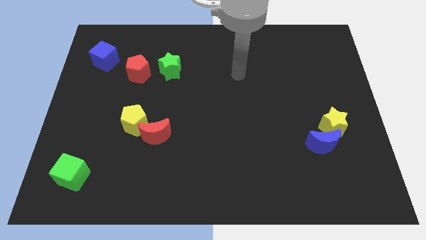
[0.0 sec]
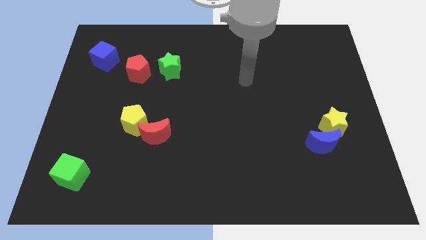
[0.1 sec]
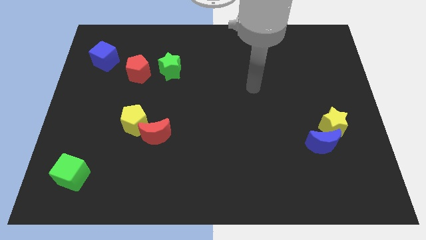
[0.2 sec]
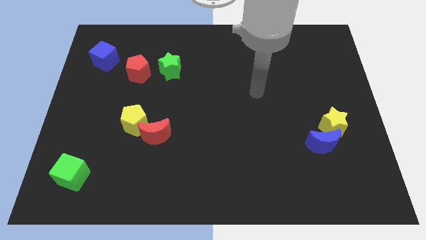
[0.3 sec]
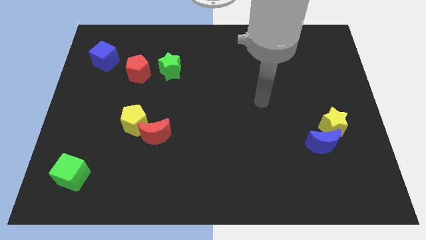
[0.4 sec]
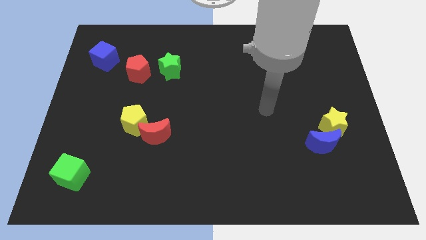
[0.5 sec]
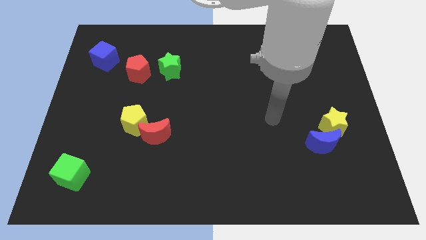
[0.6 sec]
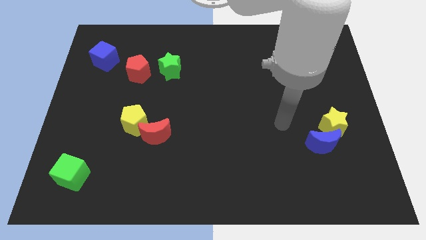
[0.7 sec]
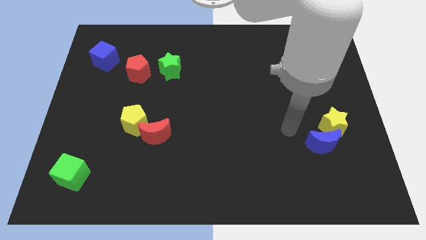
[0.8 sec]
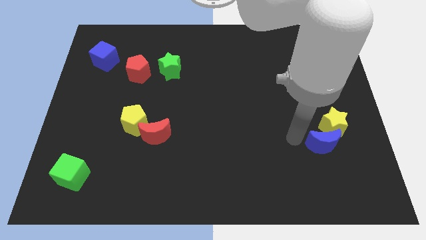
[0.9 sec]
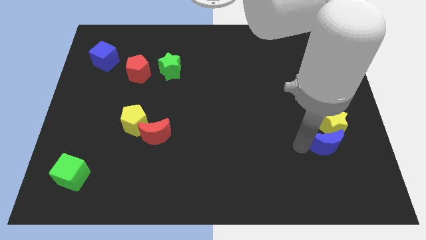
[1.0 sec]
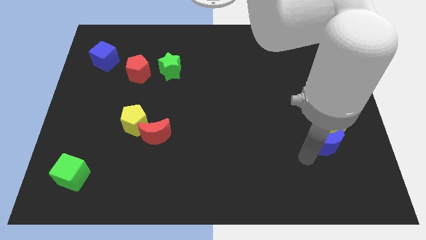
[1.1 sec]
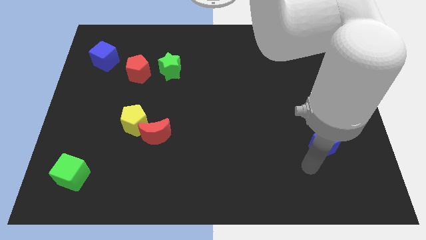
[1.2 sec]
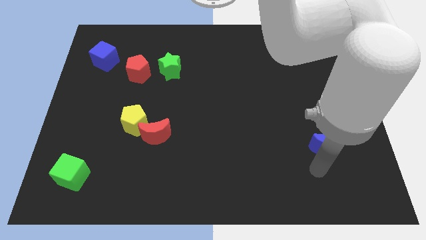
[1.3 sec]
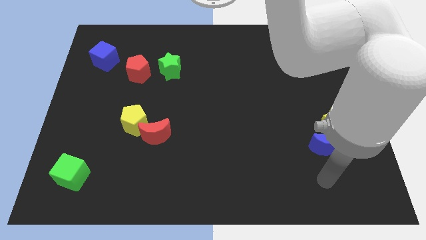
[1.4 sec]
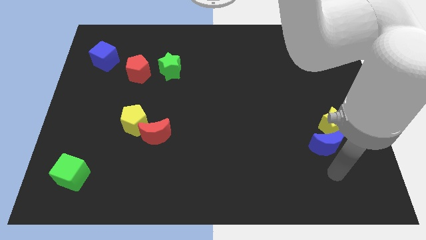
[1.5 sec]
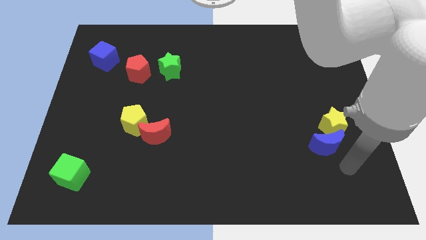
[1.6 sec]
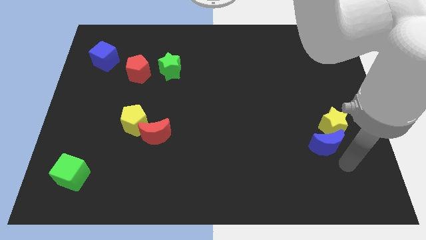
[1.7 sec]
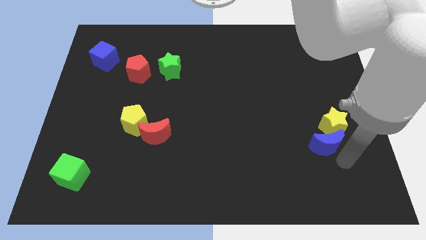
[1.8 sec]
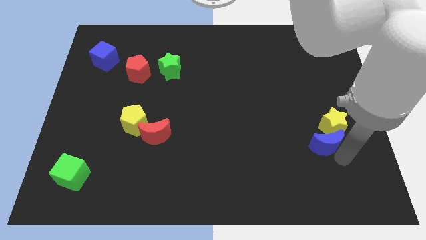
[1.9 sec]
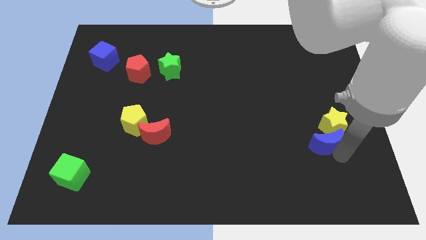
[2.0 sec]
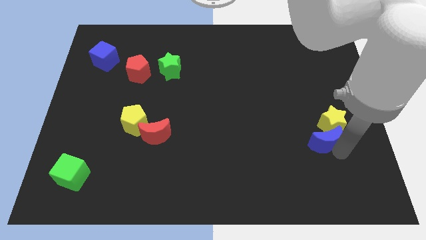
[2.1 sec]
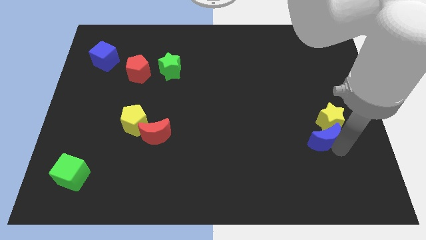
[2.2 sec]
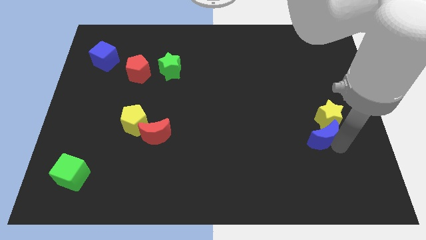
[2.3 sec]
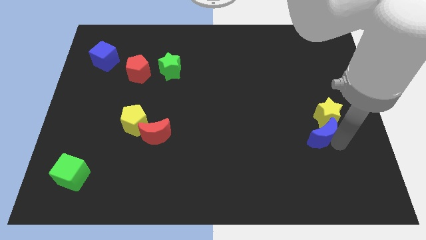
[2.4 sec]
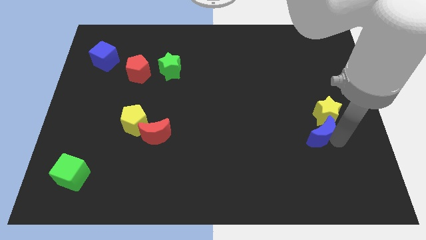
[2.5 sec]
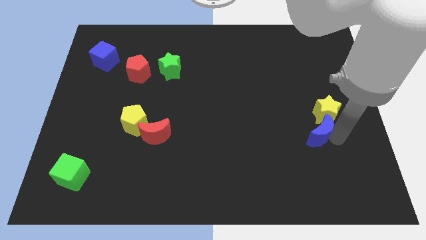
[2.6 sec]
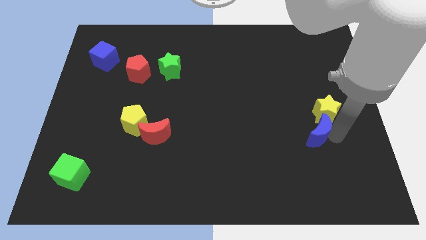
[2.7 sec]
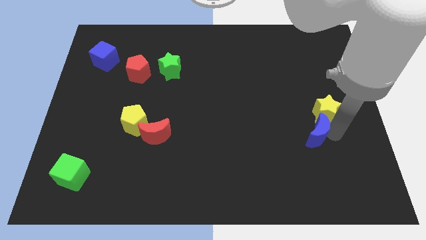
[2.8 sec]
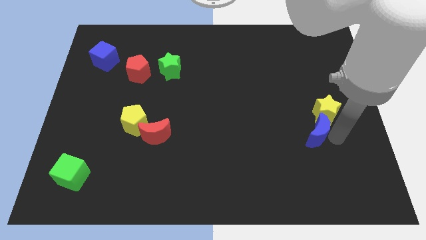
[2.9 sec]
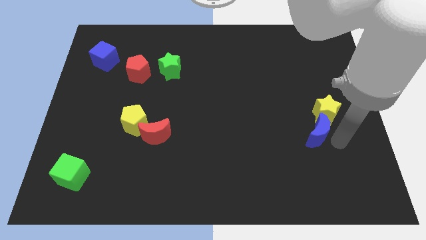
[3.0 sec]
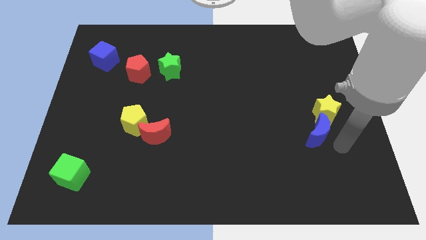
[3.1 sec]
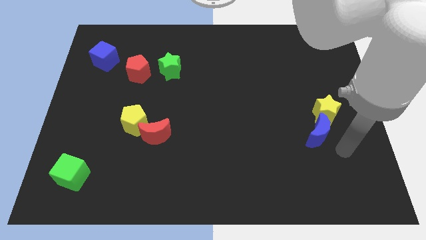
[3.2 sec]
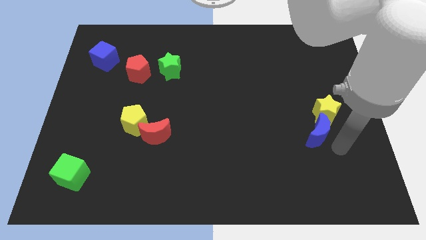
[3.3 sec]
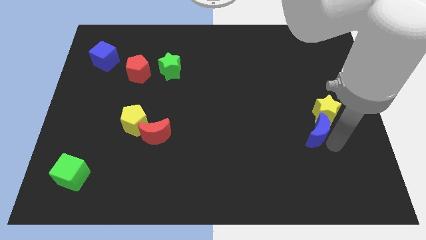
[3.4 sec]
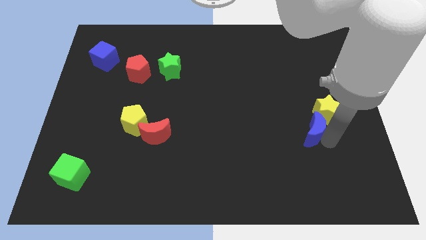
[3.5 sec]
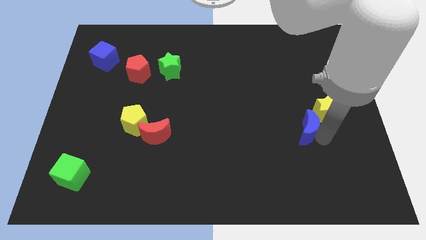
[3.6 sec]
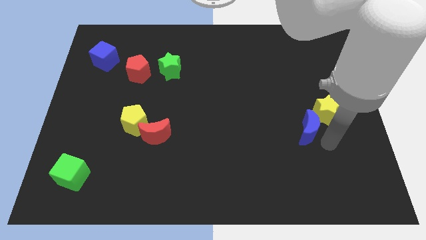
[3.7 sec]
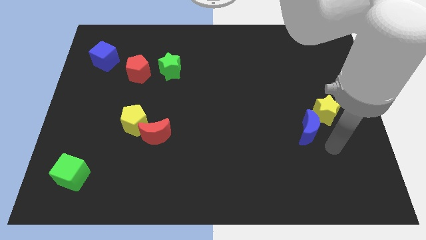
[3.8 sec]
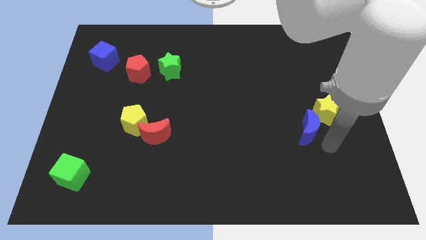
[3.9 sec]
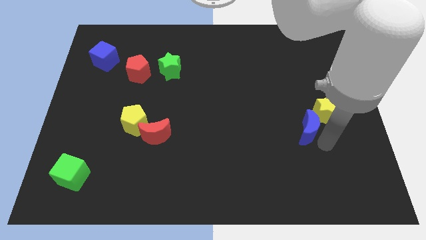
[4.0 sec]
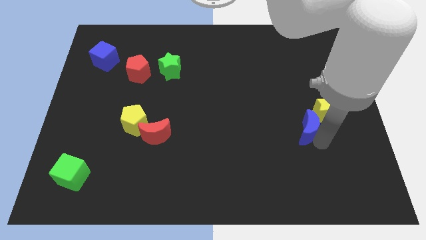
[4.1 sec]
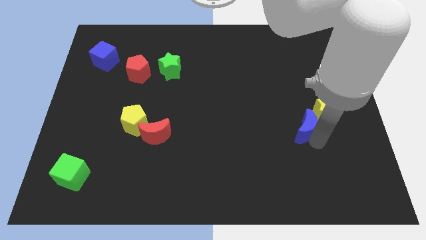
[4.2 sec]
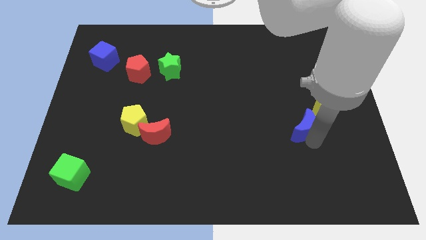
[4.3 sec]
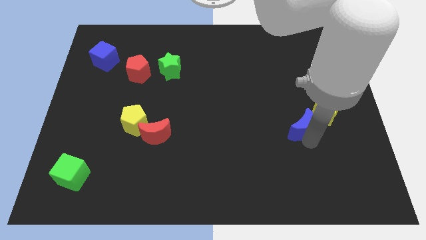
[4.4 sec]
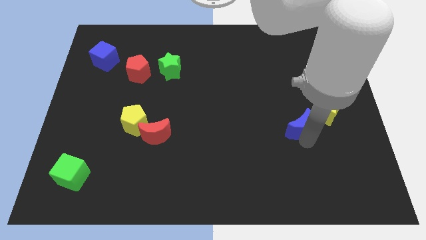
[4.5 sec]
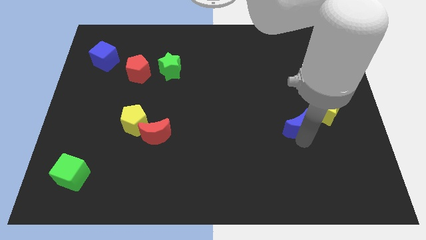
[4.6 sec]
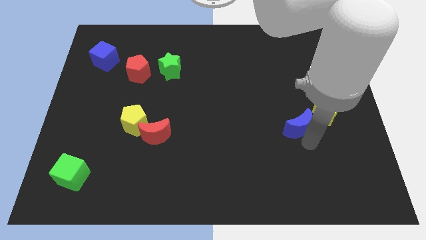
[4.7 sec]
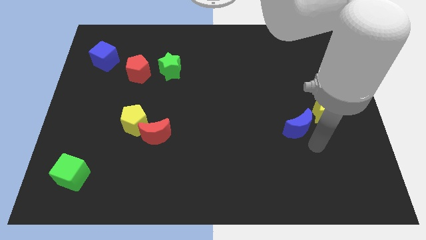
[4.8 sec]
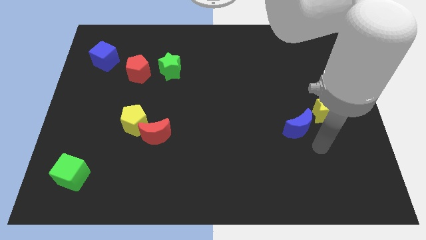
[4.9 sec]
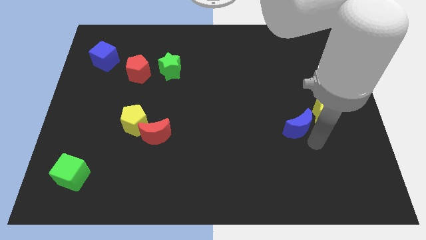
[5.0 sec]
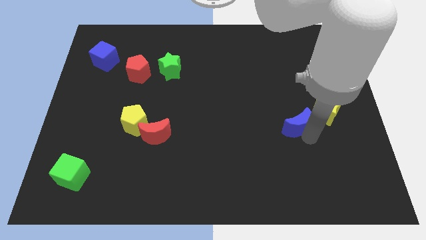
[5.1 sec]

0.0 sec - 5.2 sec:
slide the blue moon up and to the left somewhat

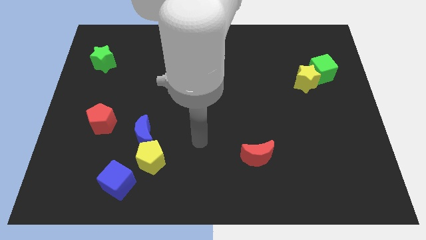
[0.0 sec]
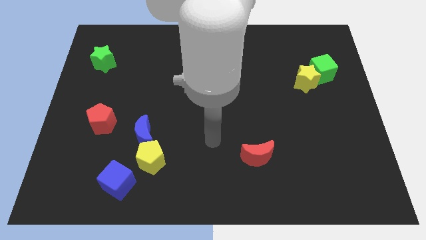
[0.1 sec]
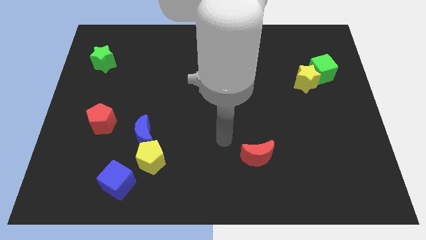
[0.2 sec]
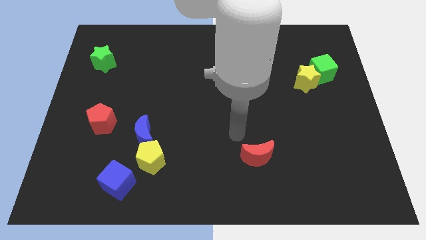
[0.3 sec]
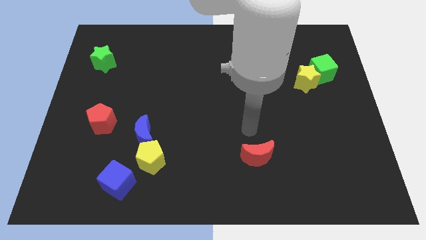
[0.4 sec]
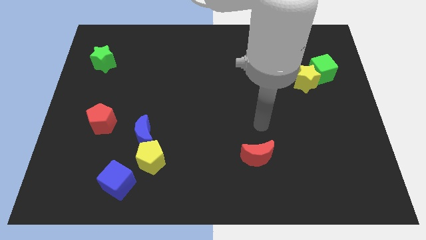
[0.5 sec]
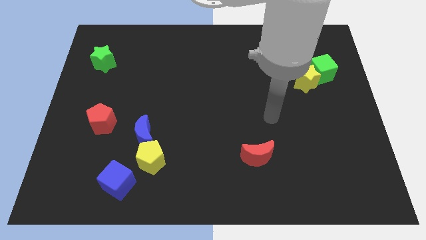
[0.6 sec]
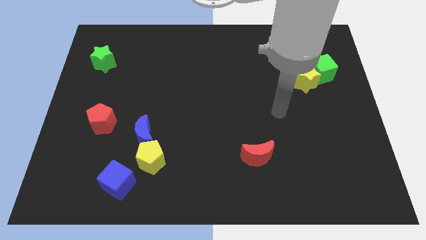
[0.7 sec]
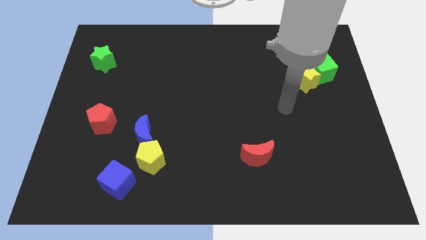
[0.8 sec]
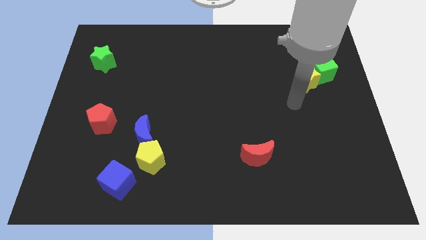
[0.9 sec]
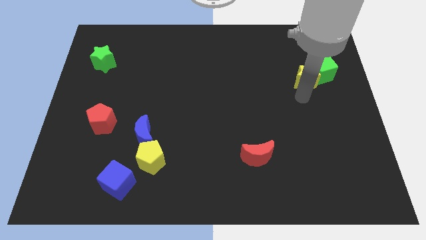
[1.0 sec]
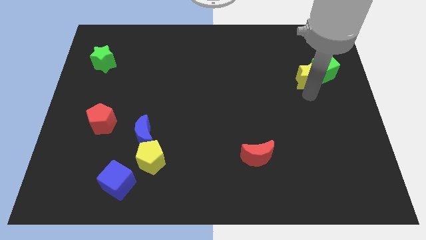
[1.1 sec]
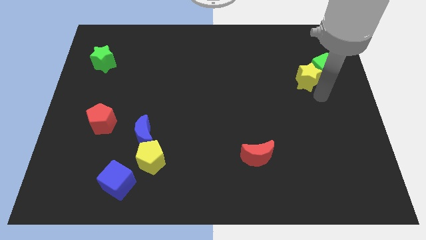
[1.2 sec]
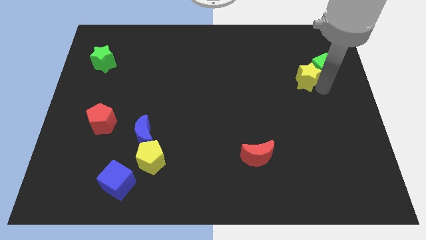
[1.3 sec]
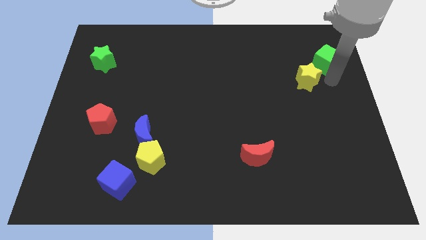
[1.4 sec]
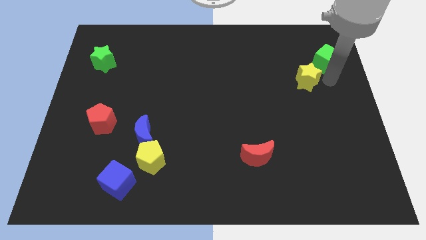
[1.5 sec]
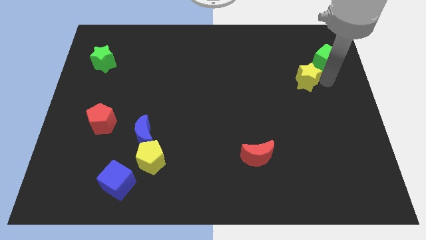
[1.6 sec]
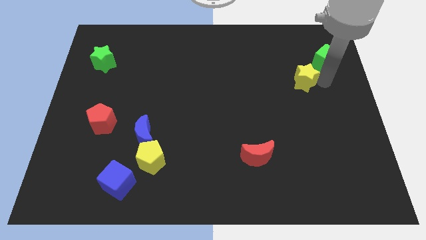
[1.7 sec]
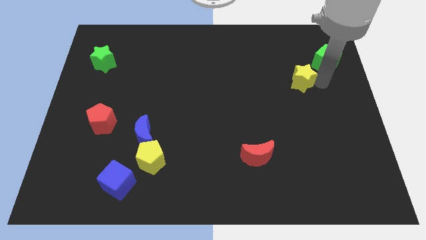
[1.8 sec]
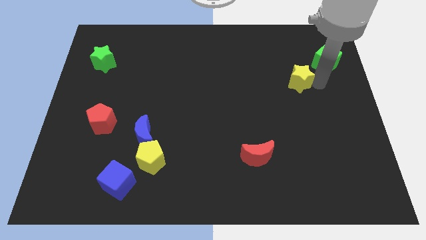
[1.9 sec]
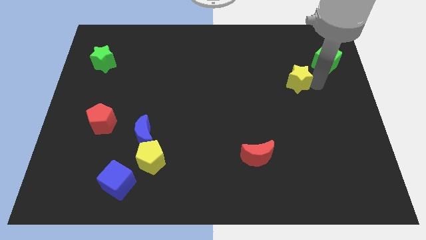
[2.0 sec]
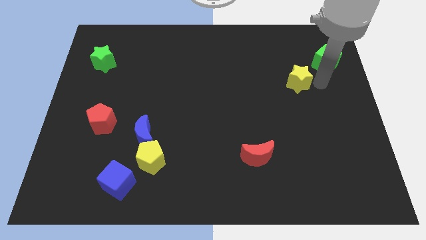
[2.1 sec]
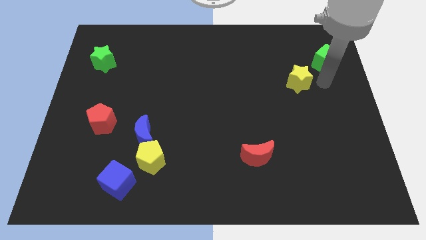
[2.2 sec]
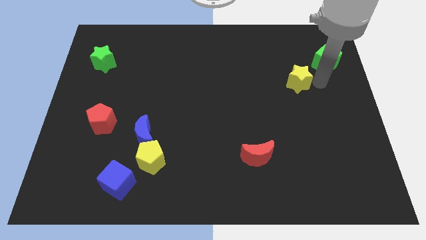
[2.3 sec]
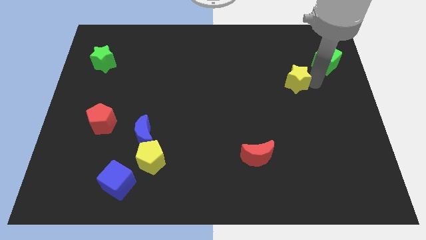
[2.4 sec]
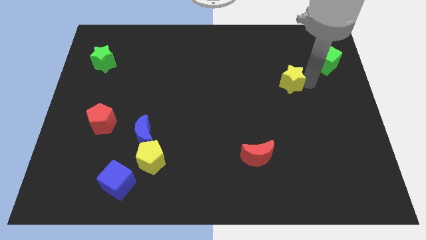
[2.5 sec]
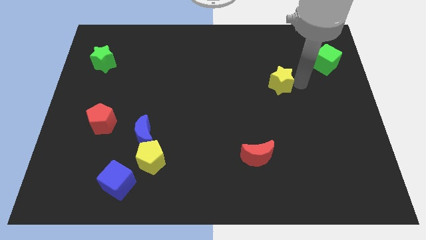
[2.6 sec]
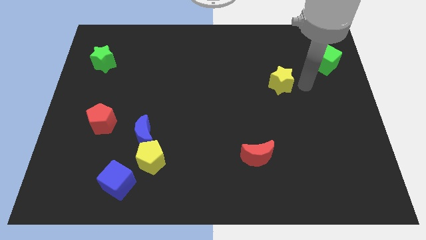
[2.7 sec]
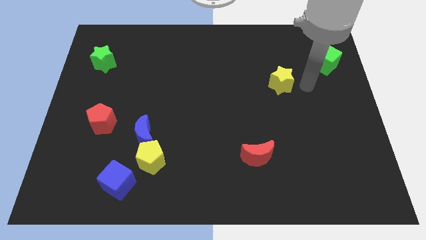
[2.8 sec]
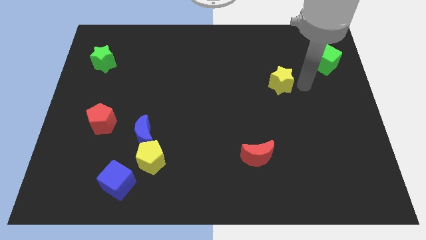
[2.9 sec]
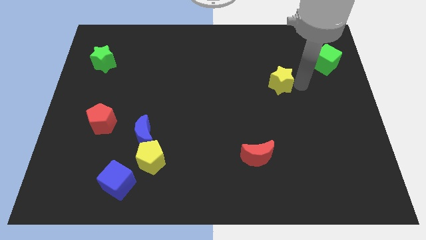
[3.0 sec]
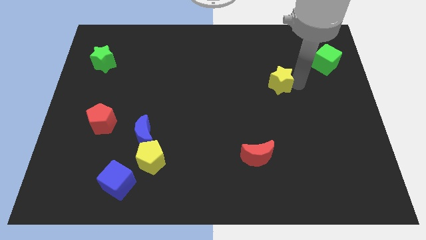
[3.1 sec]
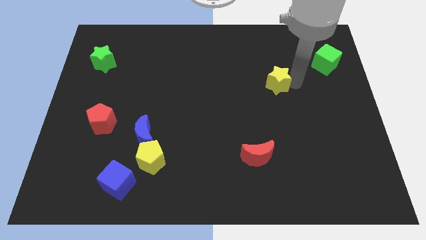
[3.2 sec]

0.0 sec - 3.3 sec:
push the yellow star to the left slightly

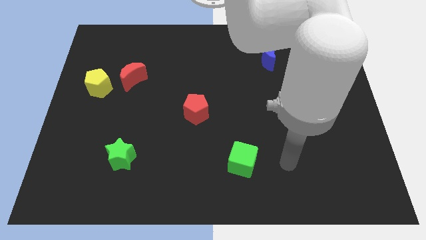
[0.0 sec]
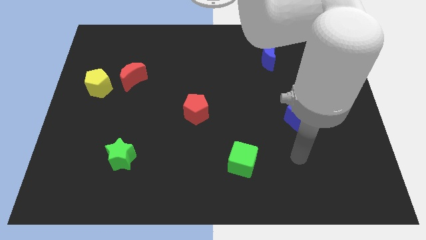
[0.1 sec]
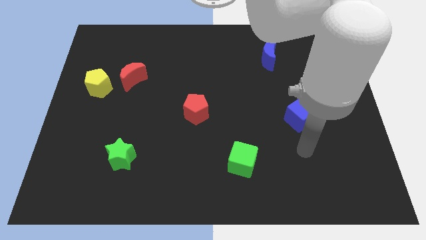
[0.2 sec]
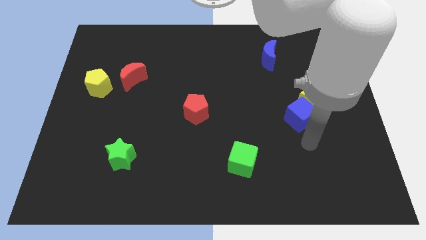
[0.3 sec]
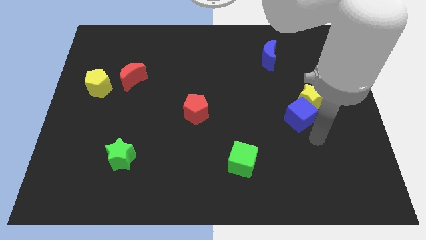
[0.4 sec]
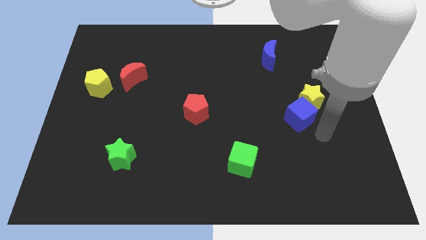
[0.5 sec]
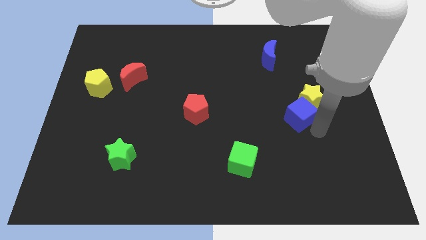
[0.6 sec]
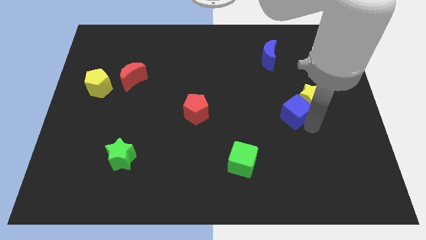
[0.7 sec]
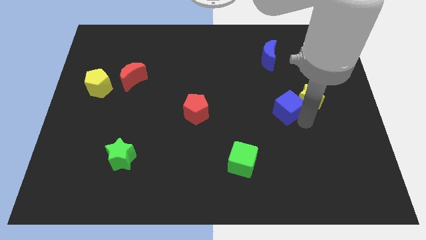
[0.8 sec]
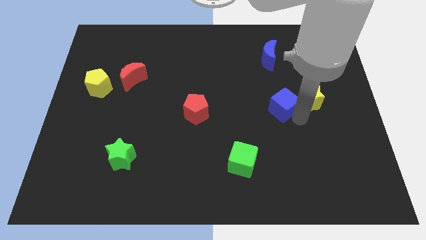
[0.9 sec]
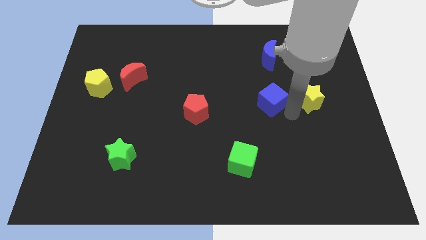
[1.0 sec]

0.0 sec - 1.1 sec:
push the blue cube diagonally upwards and to the left a bit
